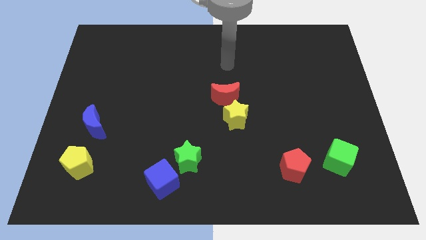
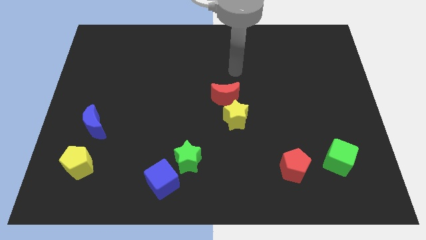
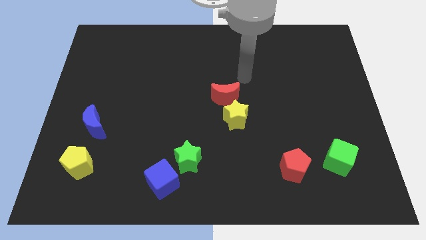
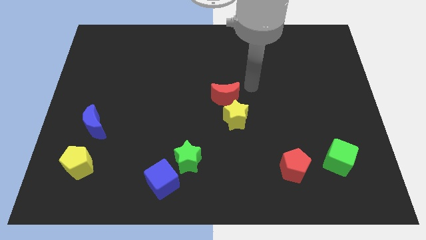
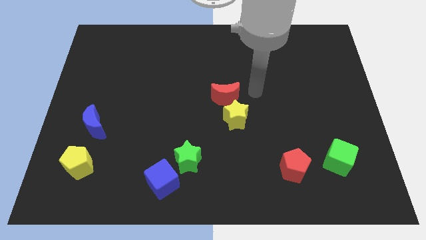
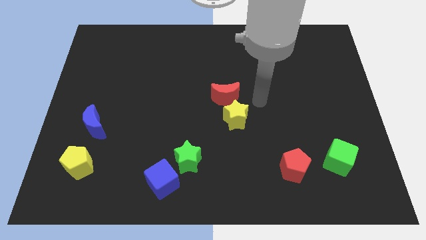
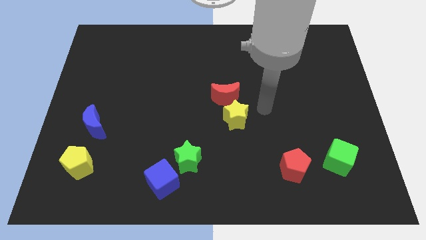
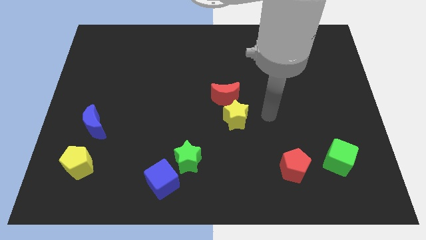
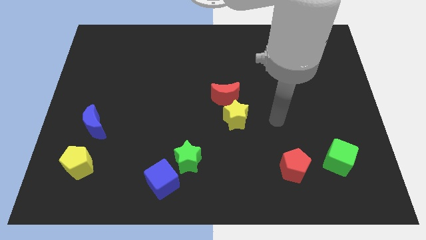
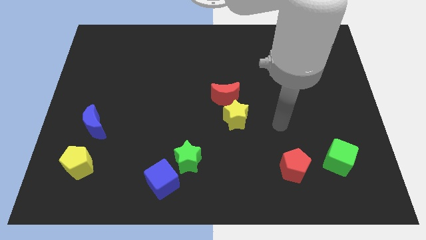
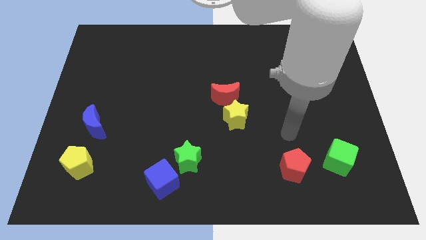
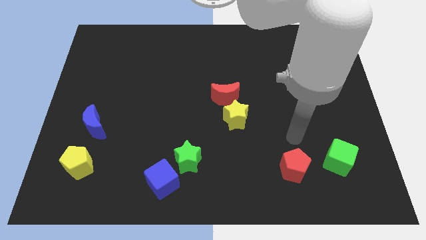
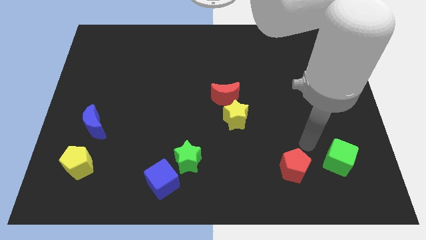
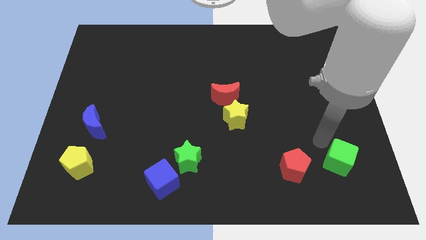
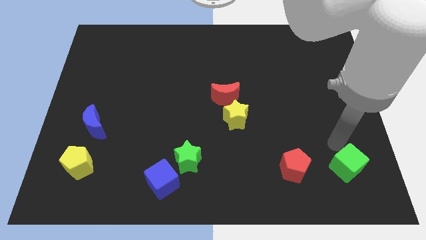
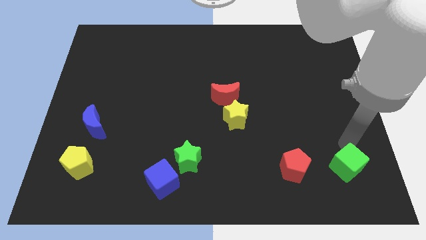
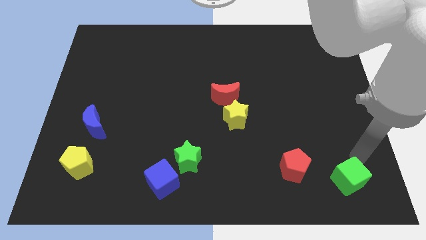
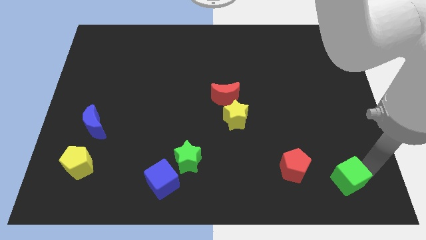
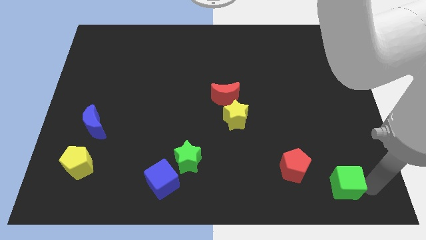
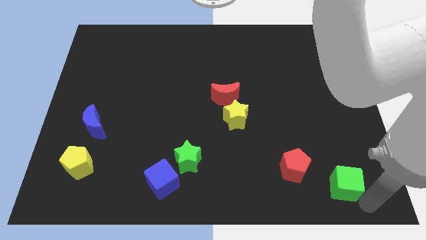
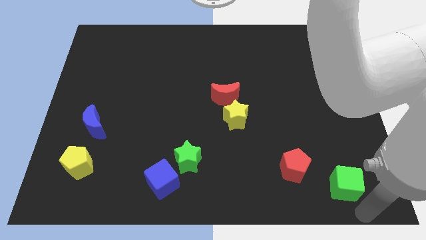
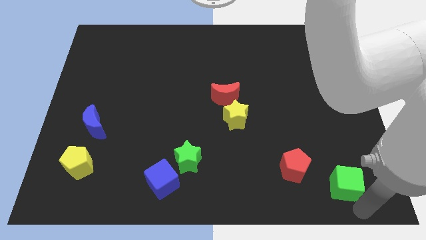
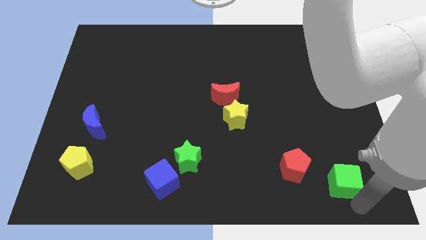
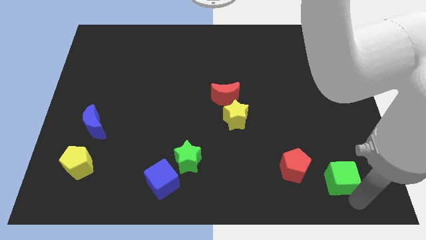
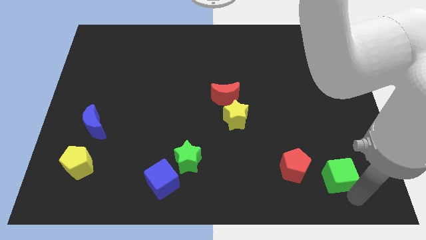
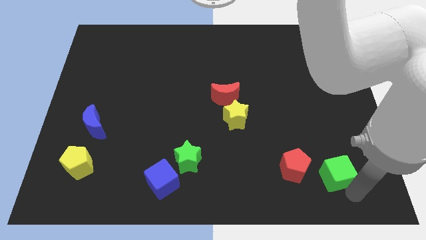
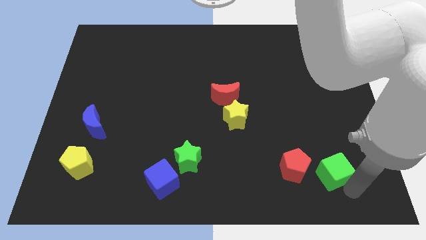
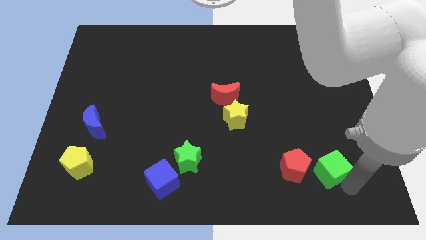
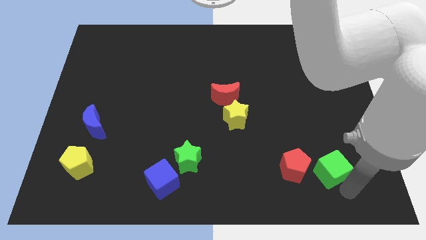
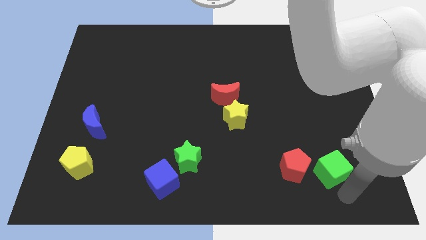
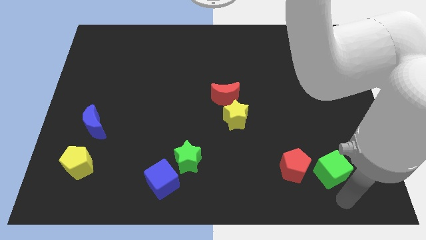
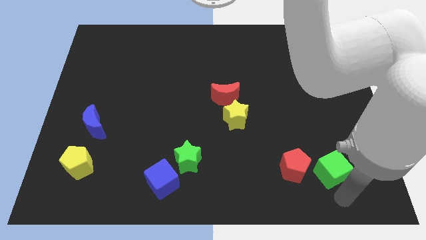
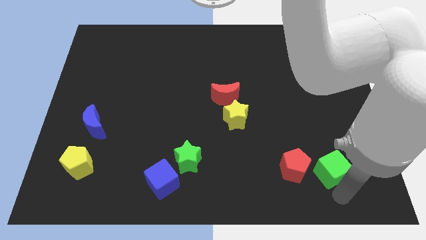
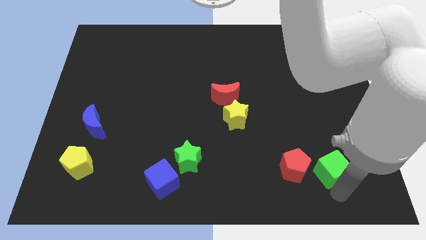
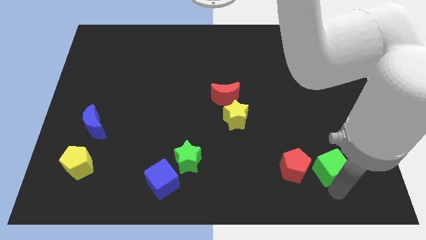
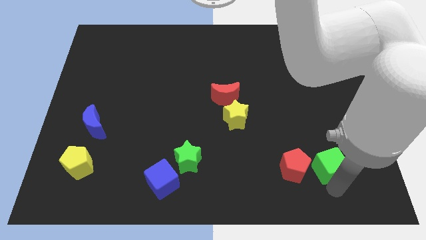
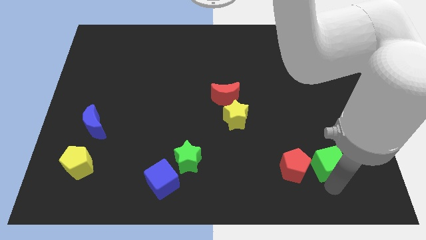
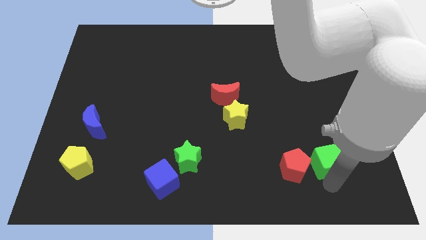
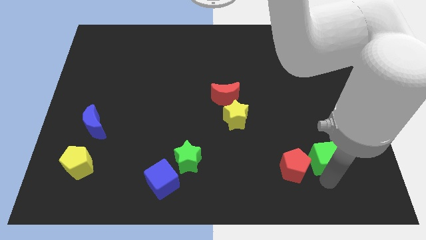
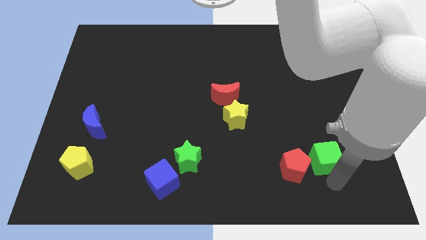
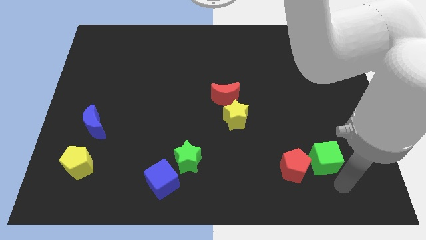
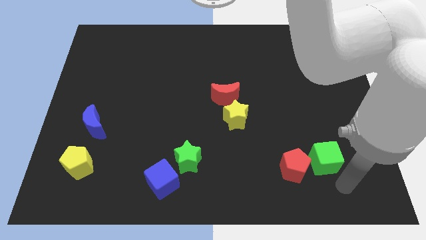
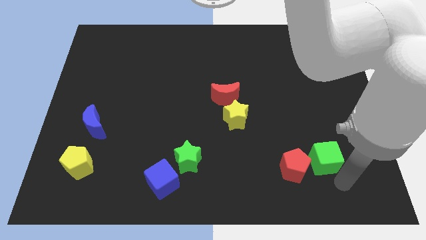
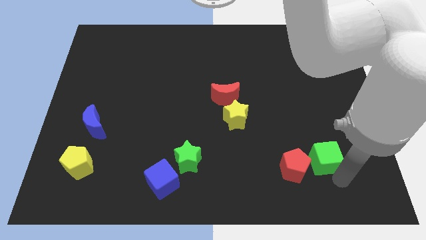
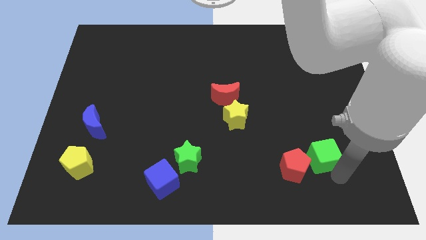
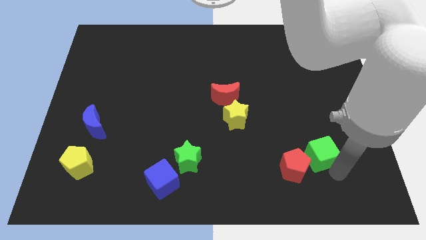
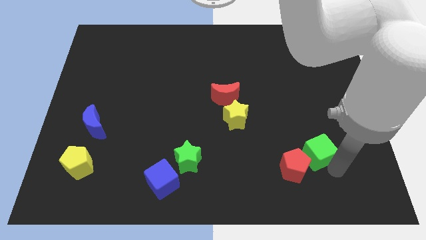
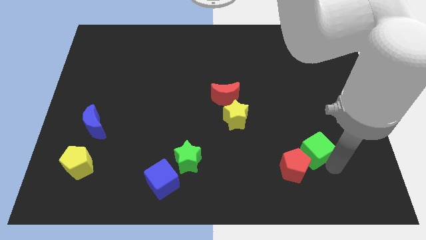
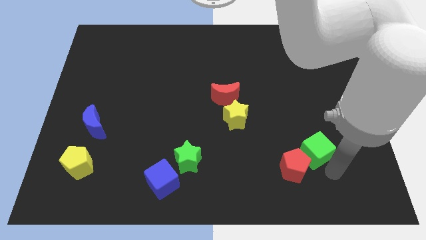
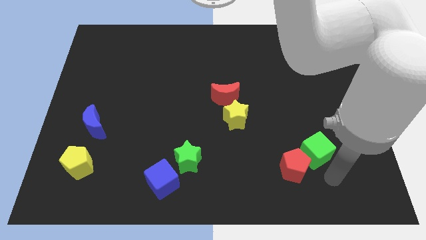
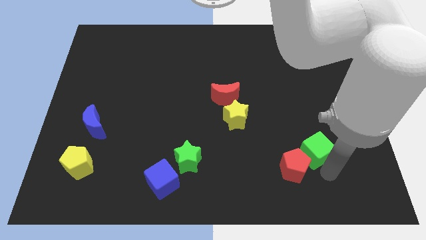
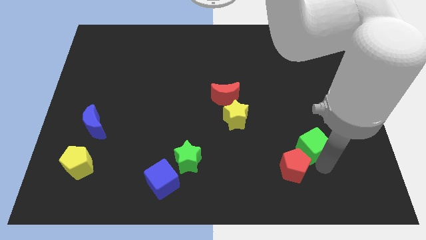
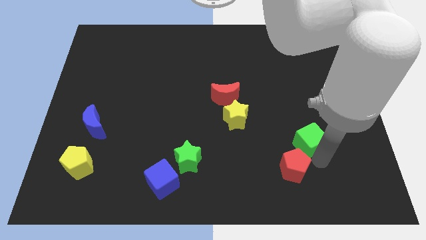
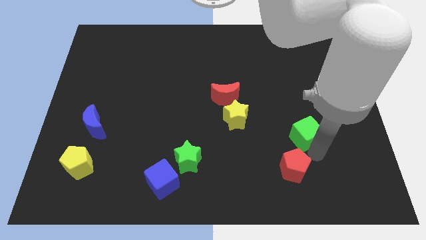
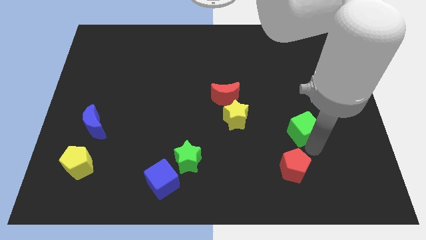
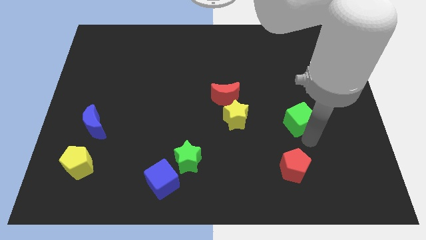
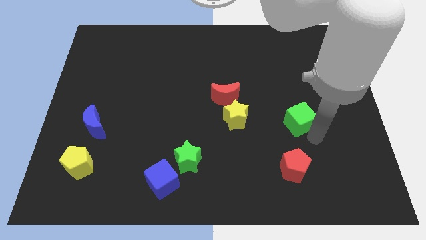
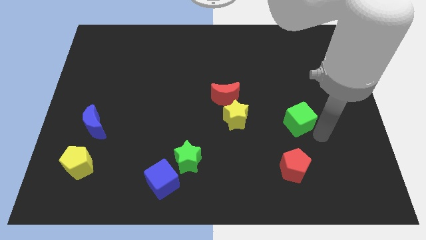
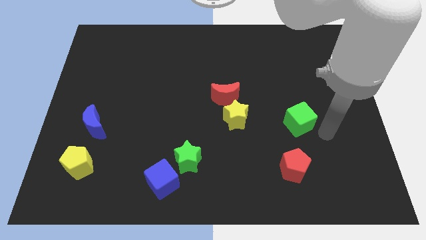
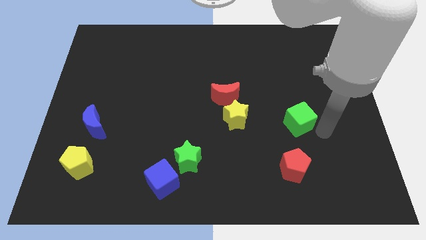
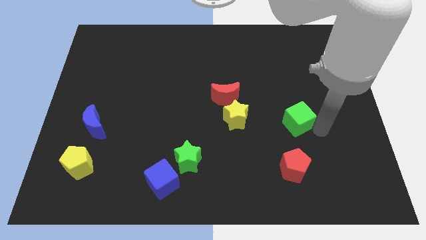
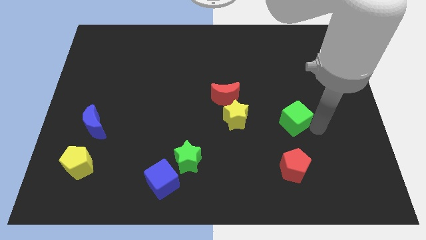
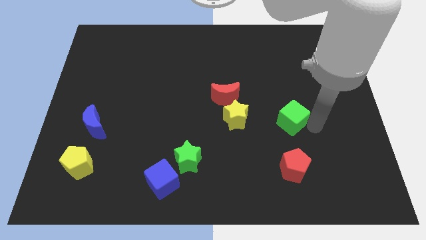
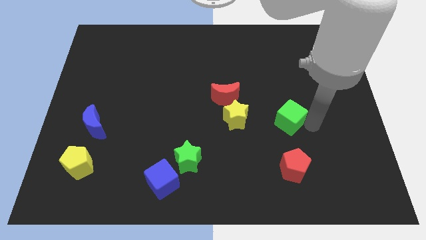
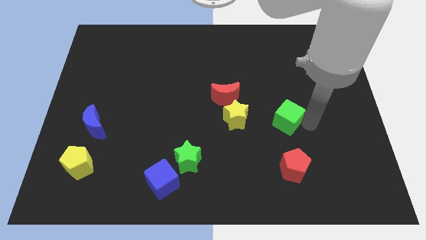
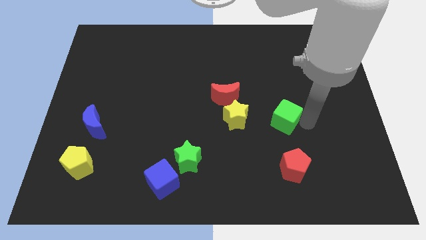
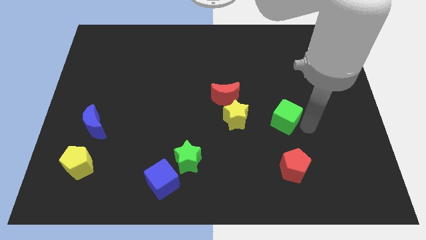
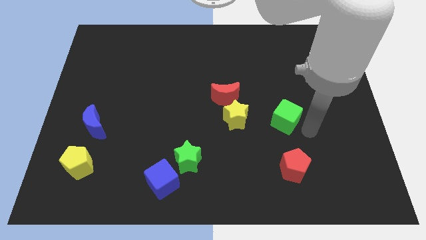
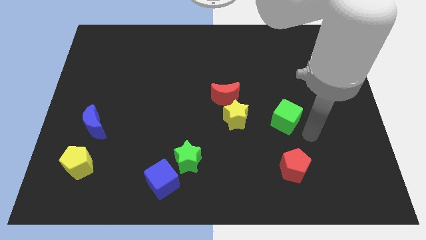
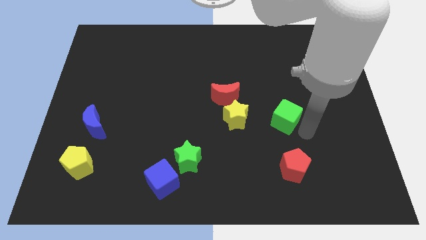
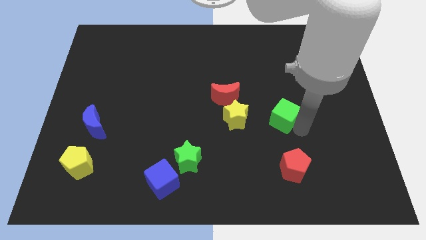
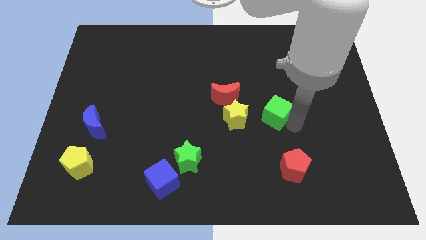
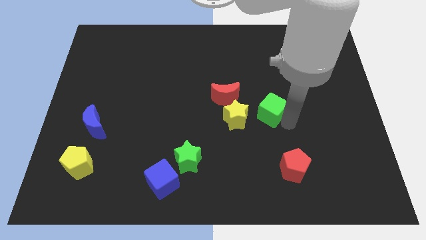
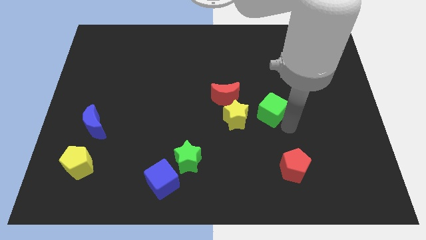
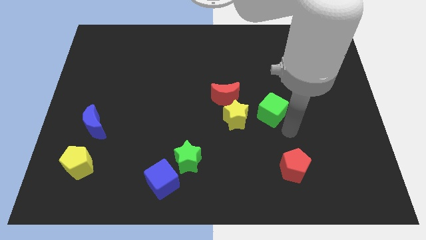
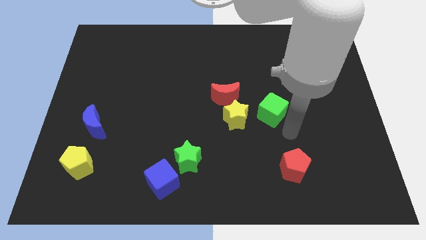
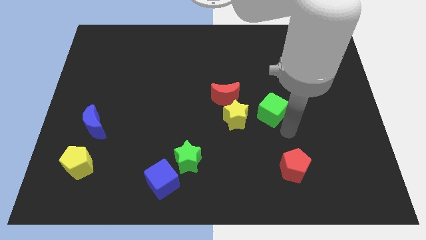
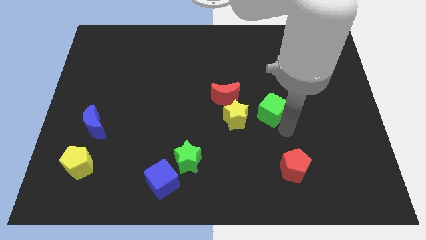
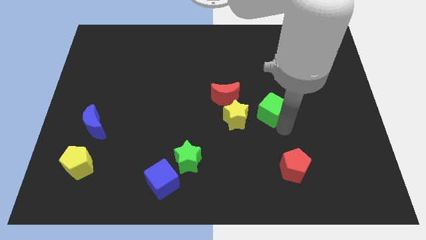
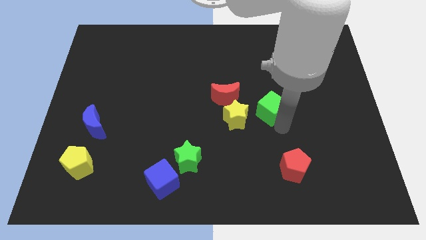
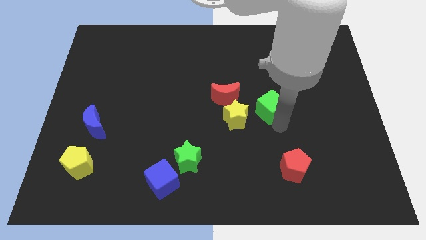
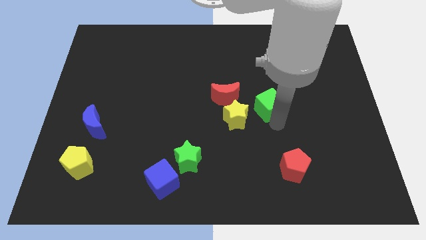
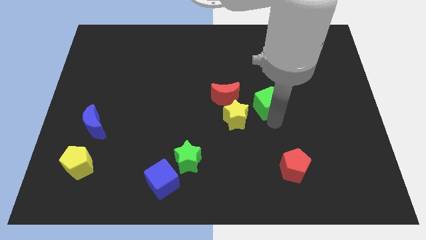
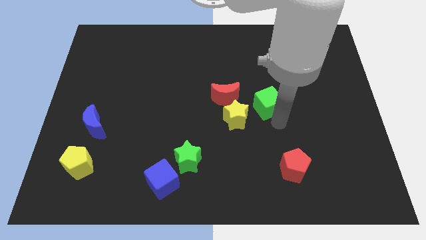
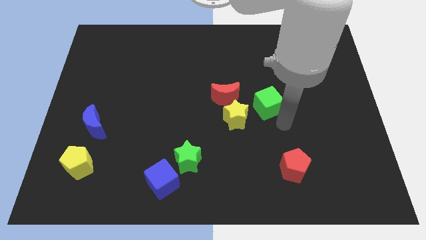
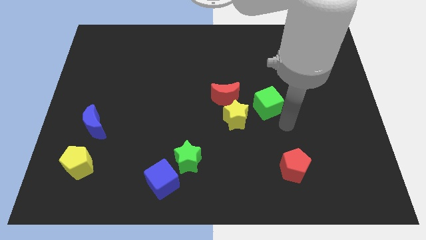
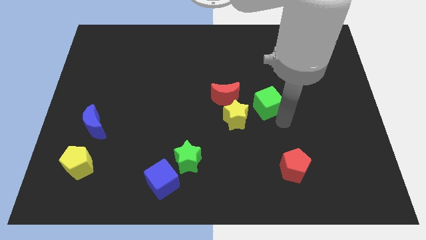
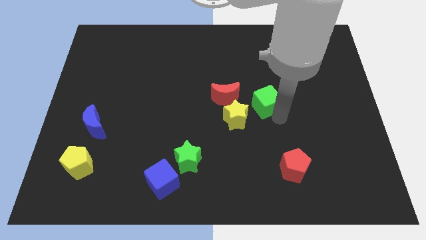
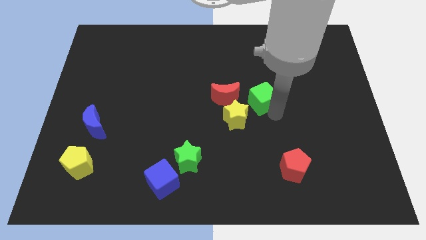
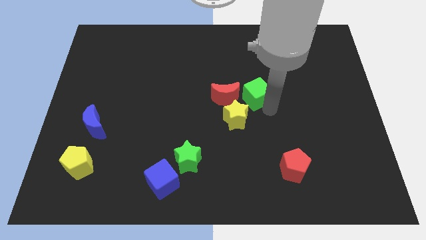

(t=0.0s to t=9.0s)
put the green cube to the top right side of the red moon
